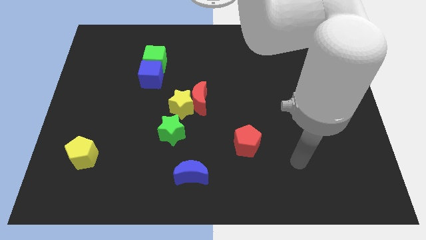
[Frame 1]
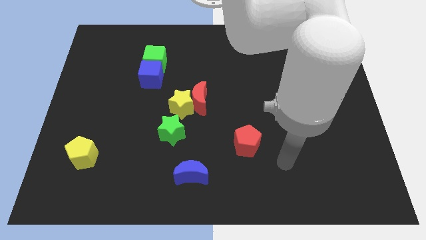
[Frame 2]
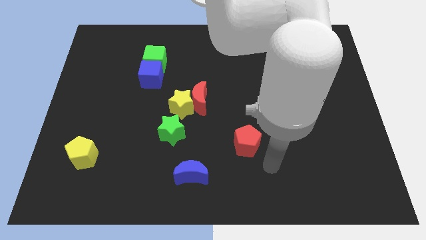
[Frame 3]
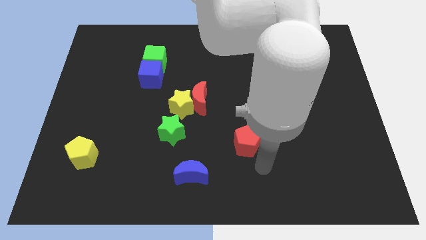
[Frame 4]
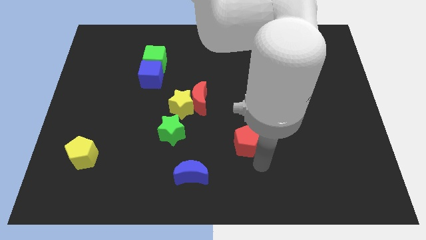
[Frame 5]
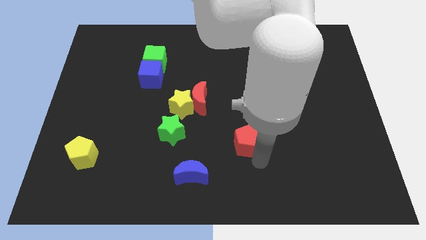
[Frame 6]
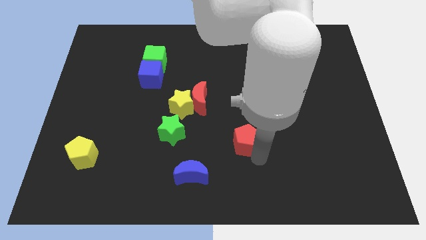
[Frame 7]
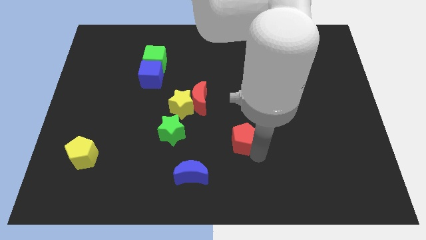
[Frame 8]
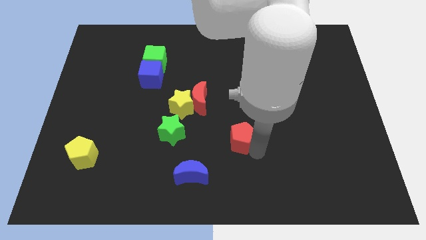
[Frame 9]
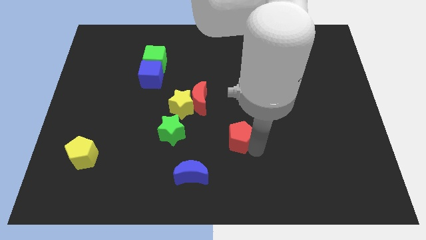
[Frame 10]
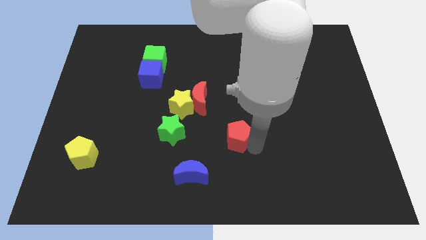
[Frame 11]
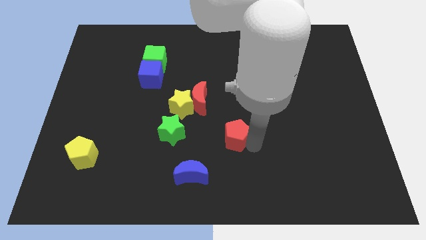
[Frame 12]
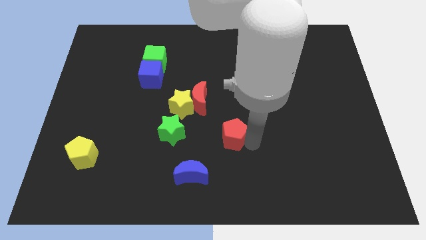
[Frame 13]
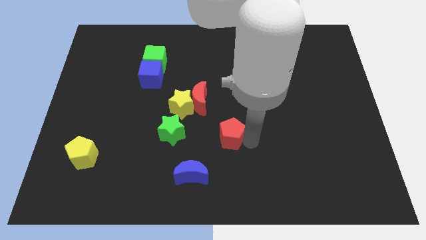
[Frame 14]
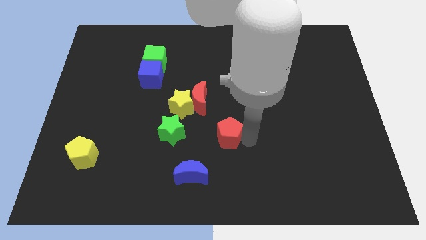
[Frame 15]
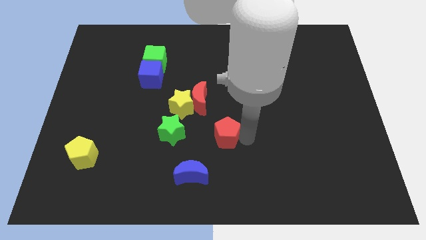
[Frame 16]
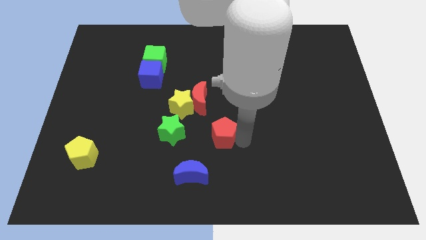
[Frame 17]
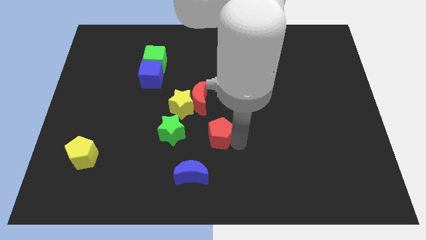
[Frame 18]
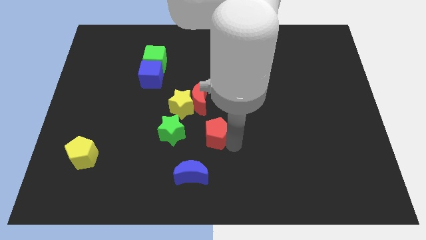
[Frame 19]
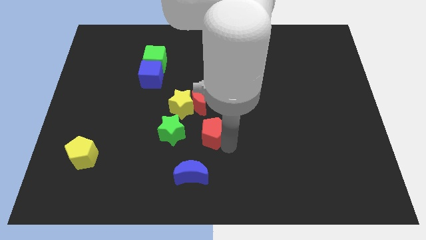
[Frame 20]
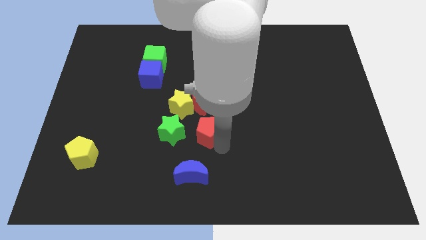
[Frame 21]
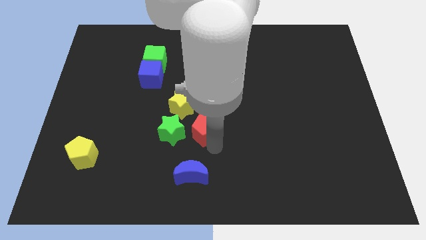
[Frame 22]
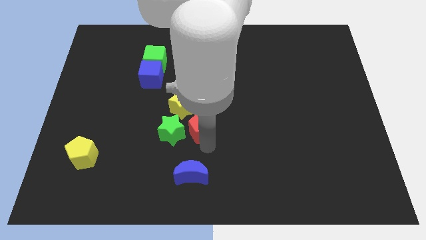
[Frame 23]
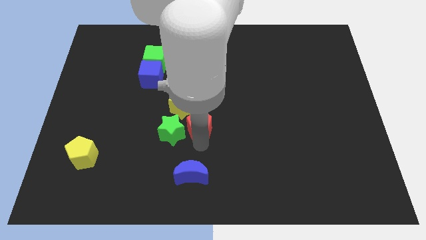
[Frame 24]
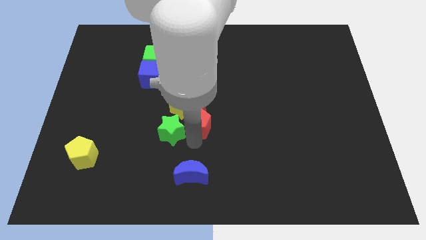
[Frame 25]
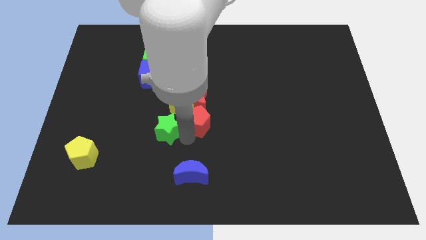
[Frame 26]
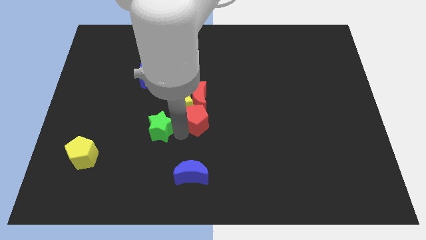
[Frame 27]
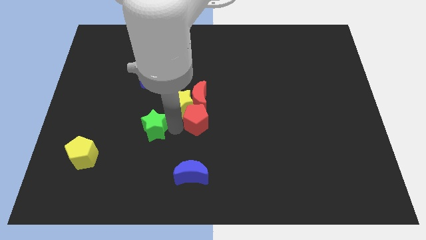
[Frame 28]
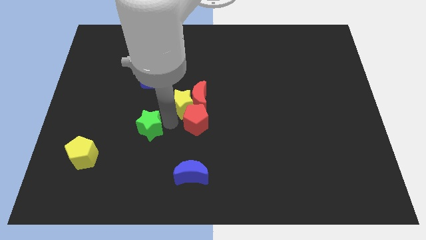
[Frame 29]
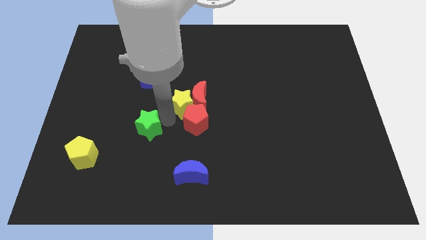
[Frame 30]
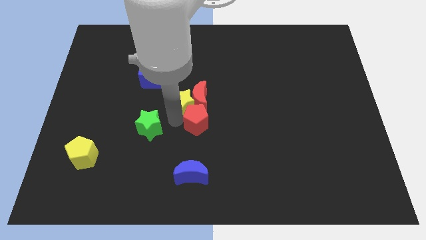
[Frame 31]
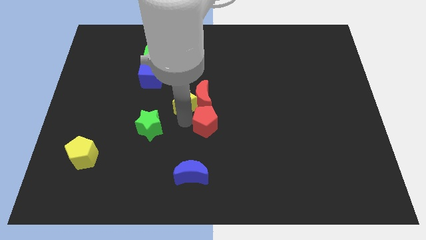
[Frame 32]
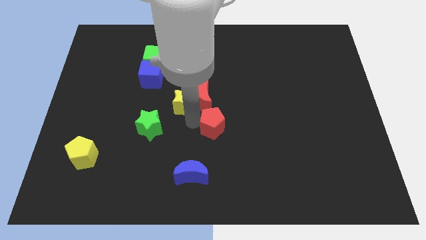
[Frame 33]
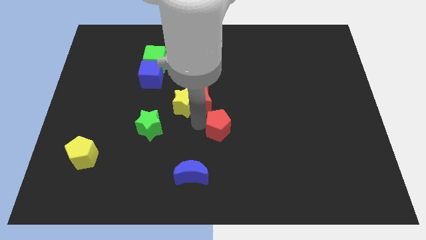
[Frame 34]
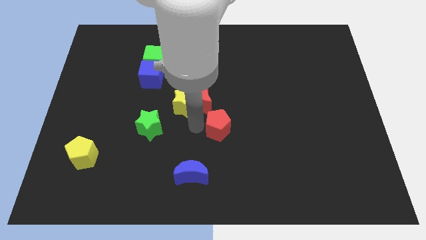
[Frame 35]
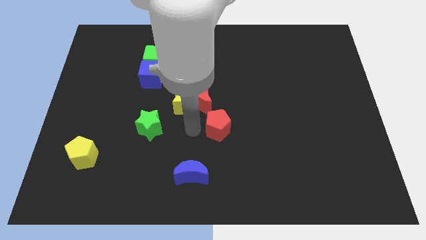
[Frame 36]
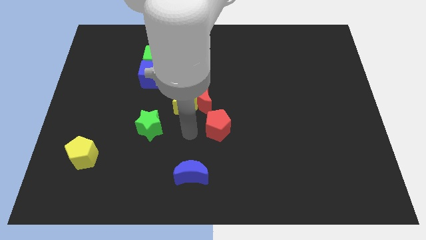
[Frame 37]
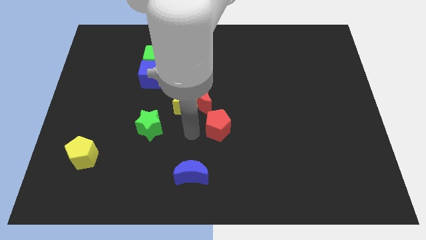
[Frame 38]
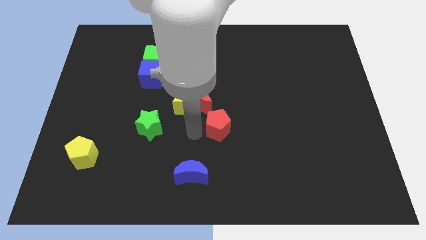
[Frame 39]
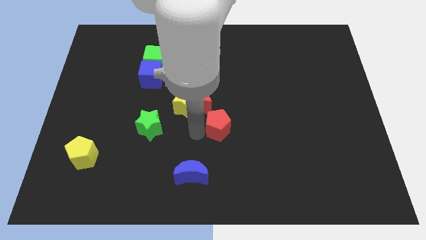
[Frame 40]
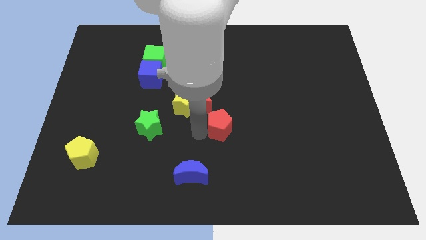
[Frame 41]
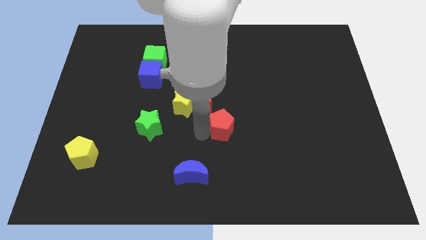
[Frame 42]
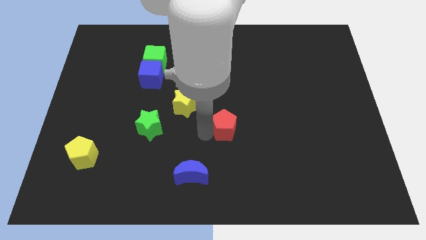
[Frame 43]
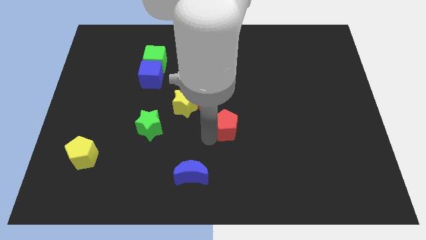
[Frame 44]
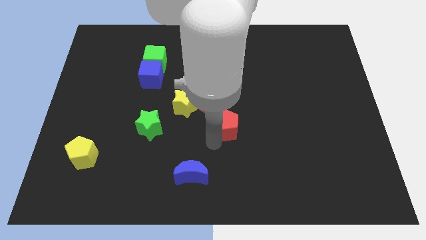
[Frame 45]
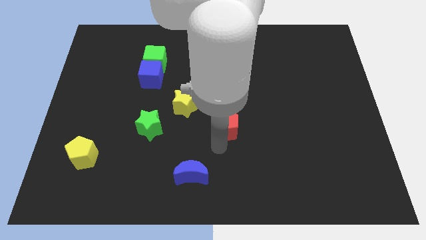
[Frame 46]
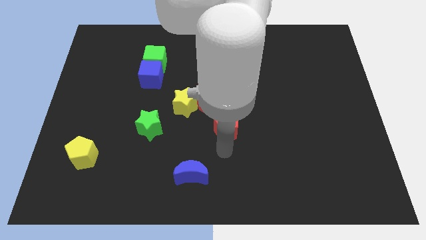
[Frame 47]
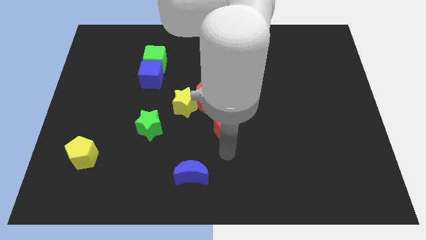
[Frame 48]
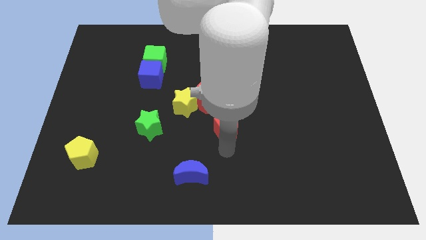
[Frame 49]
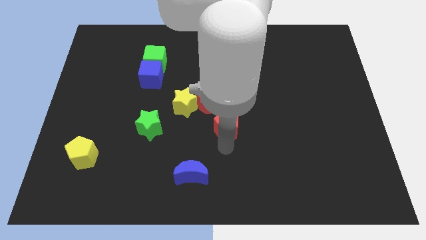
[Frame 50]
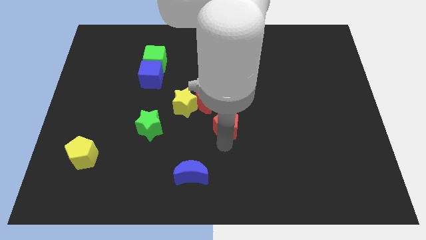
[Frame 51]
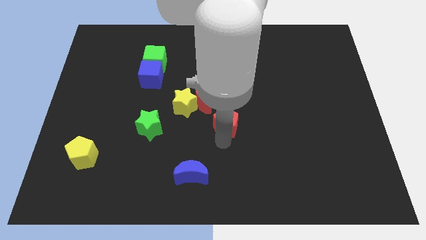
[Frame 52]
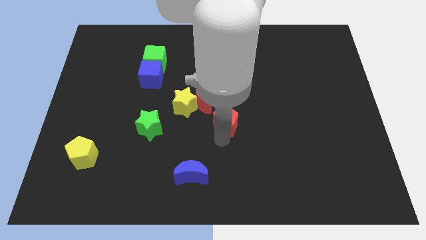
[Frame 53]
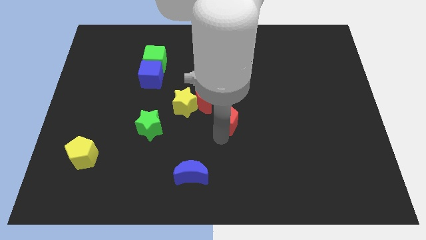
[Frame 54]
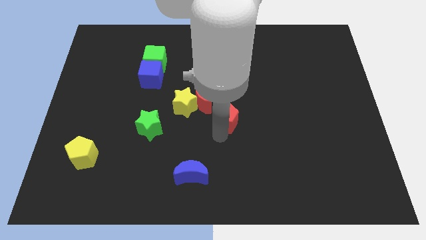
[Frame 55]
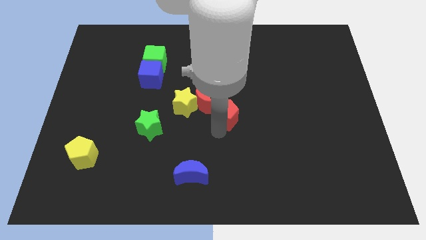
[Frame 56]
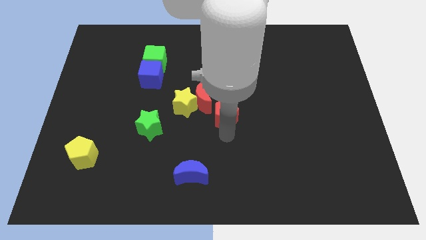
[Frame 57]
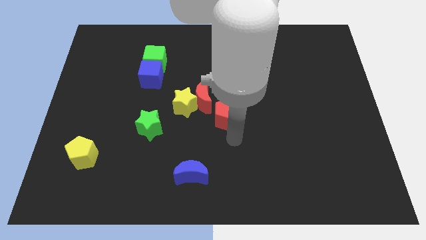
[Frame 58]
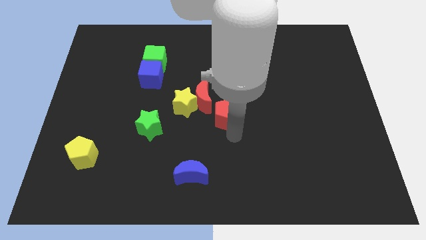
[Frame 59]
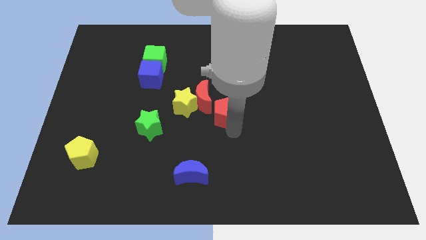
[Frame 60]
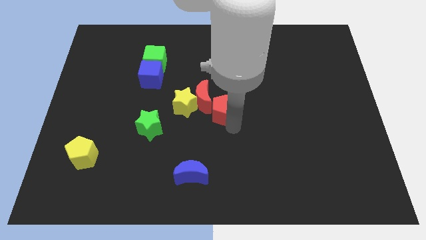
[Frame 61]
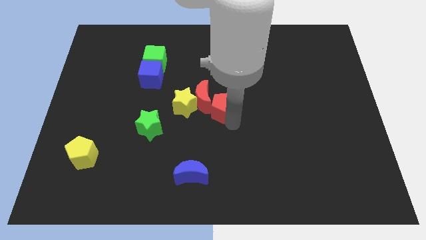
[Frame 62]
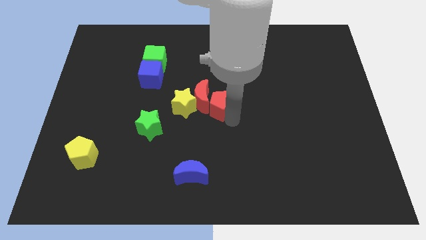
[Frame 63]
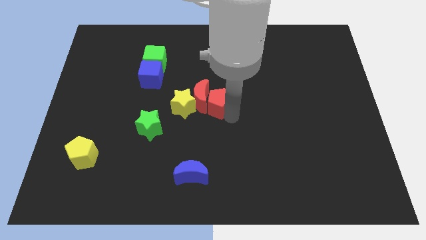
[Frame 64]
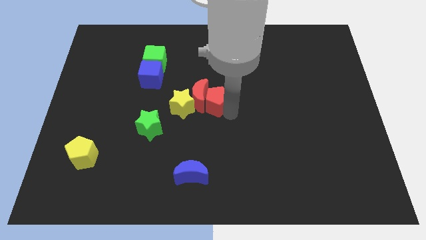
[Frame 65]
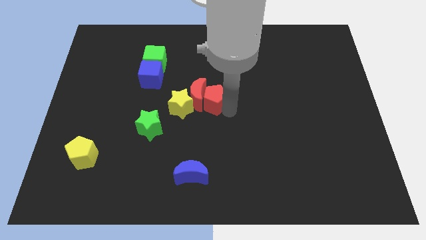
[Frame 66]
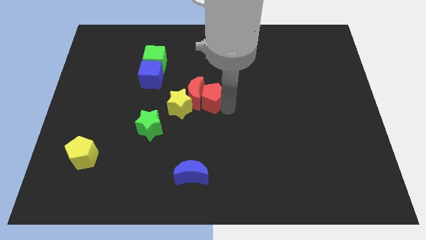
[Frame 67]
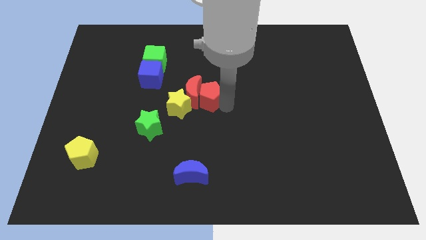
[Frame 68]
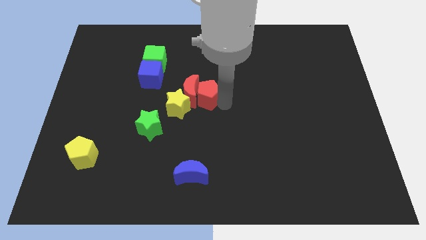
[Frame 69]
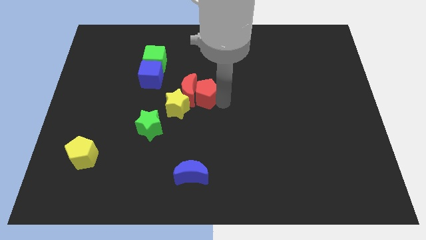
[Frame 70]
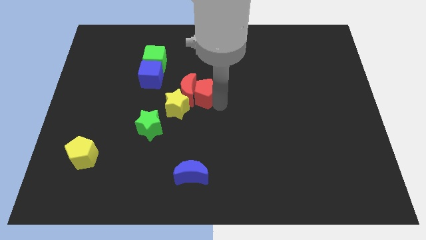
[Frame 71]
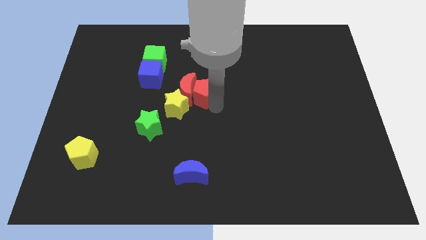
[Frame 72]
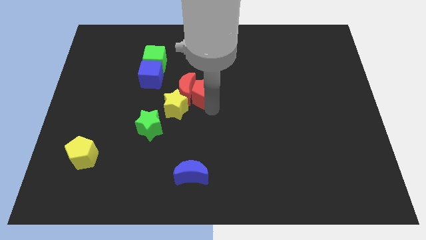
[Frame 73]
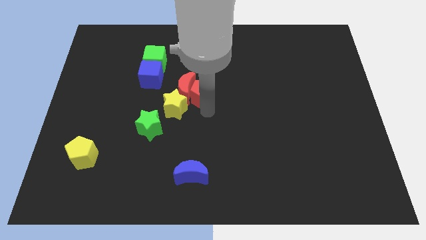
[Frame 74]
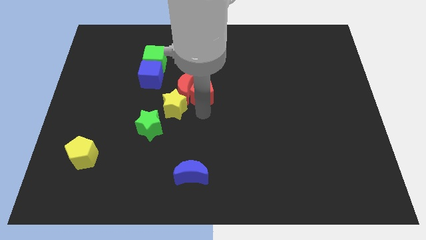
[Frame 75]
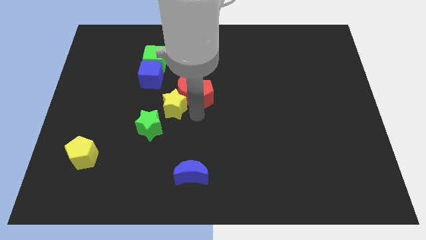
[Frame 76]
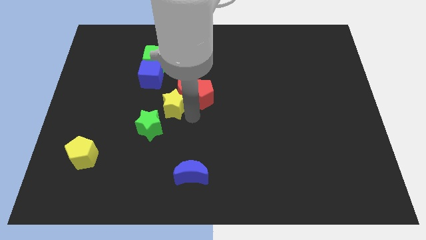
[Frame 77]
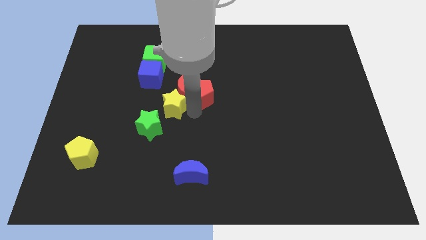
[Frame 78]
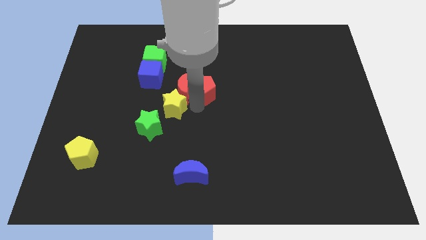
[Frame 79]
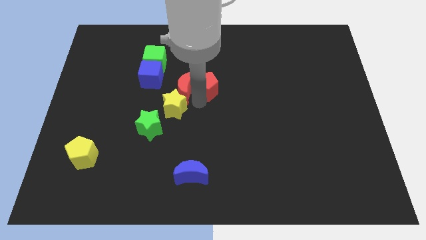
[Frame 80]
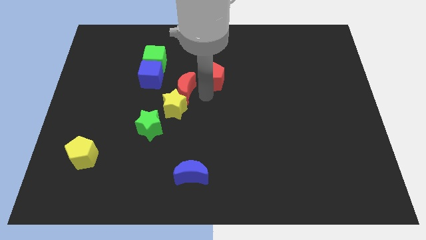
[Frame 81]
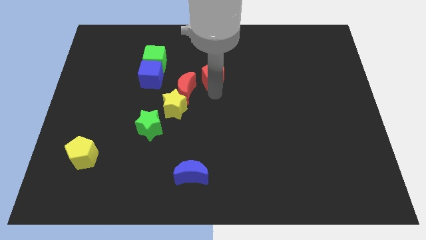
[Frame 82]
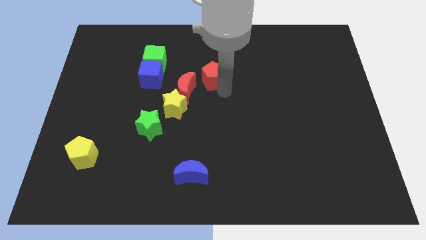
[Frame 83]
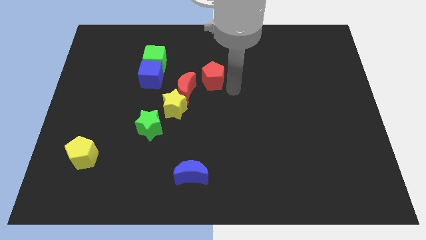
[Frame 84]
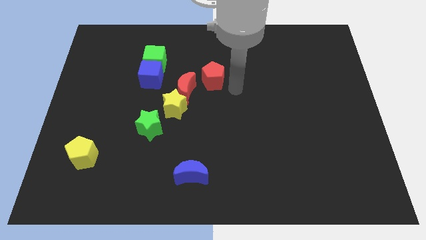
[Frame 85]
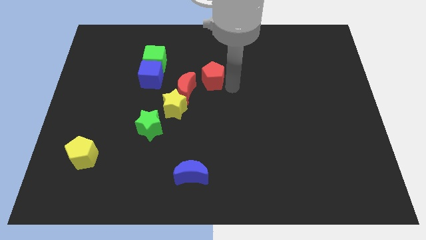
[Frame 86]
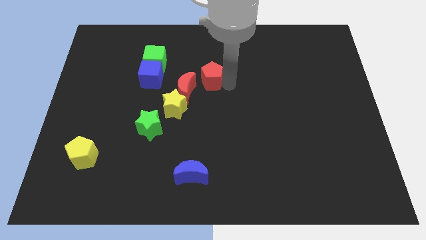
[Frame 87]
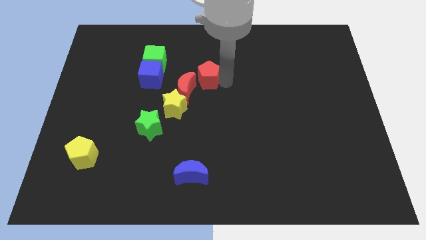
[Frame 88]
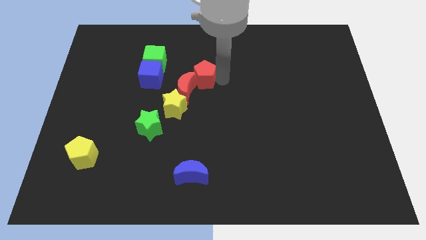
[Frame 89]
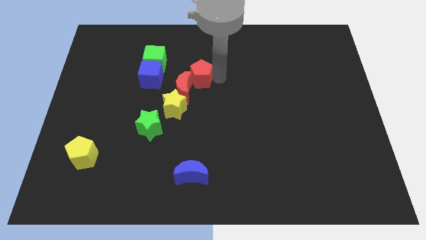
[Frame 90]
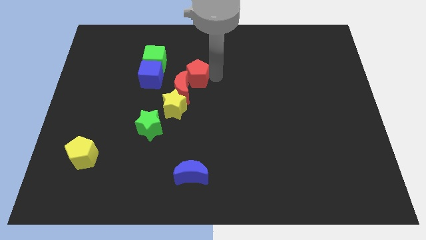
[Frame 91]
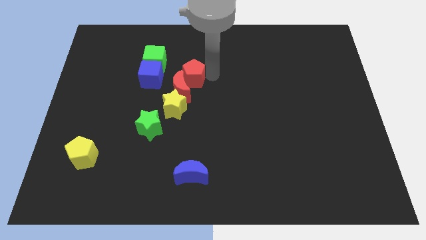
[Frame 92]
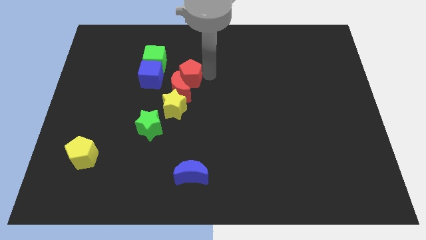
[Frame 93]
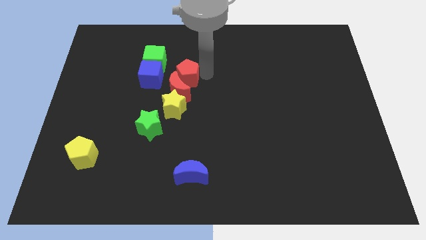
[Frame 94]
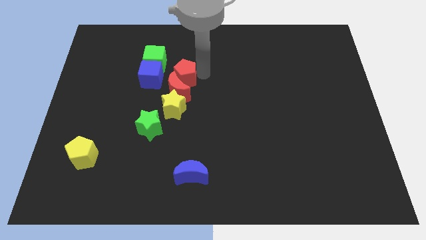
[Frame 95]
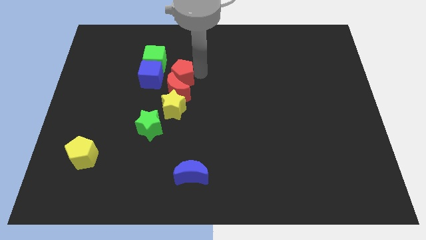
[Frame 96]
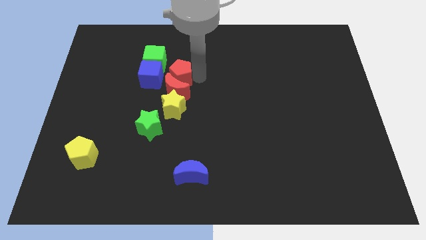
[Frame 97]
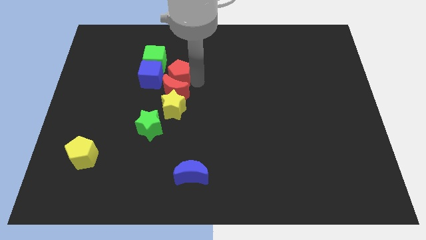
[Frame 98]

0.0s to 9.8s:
push the red pentagon to the top right of the blue cube
